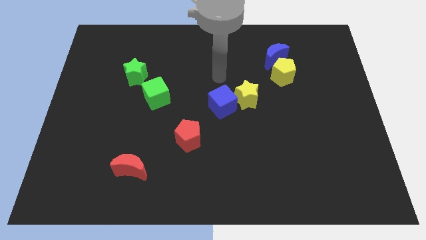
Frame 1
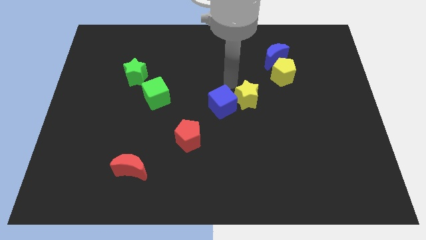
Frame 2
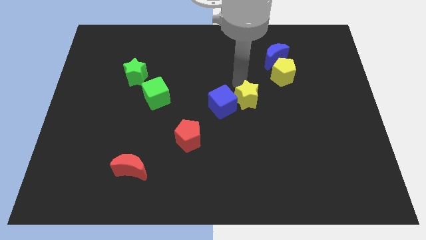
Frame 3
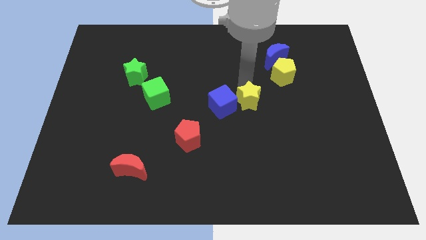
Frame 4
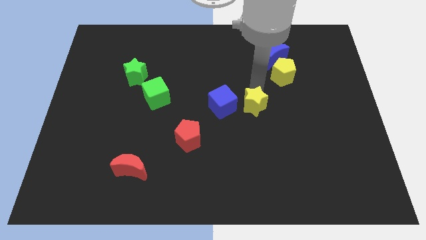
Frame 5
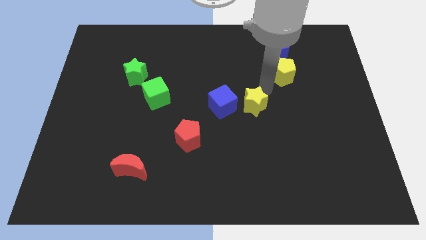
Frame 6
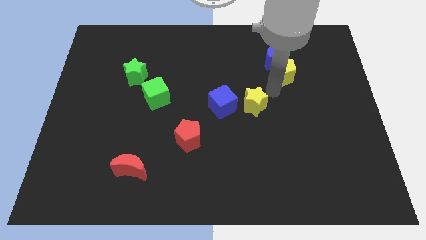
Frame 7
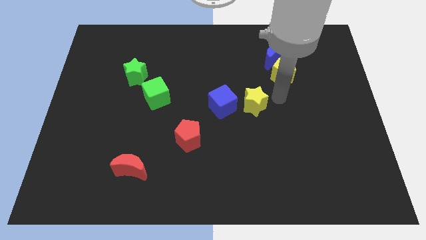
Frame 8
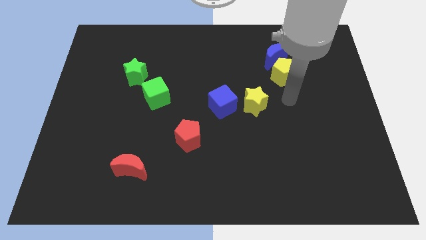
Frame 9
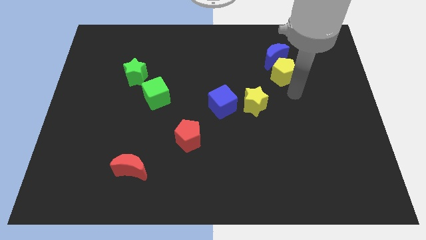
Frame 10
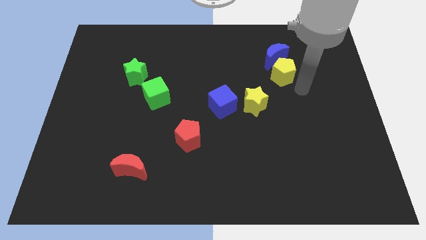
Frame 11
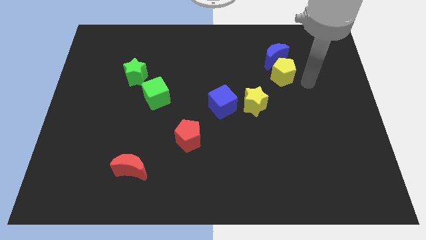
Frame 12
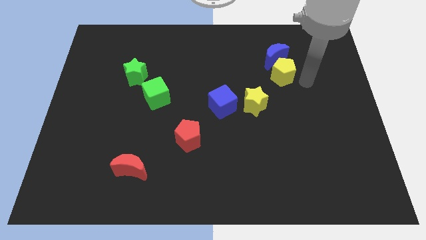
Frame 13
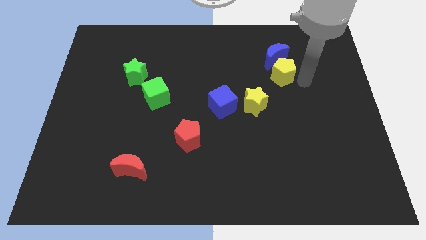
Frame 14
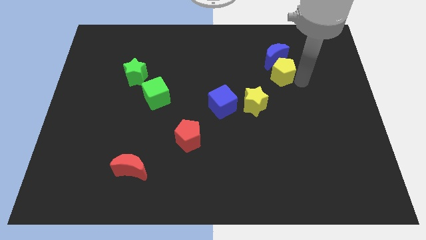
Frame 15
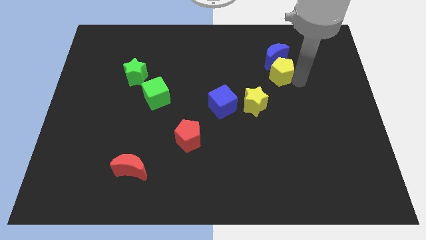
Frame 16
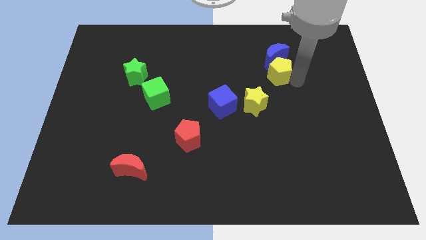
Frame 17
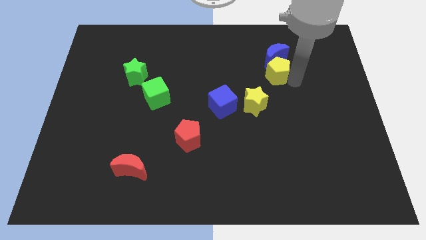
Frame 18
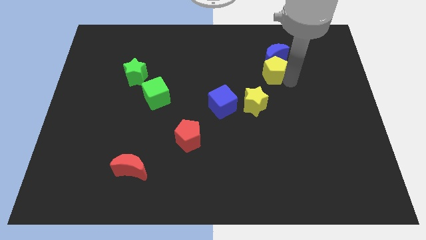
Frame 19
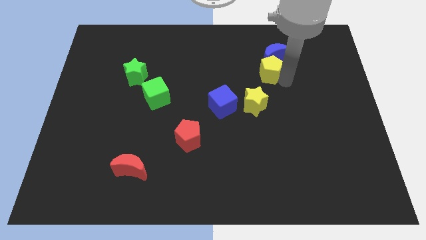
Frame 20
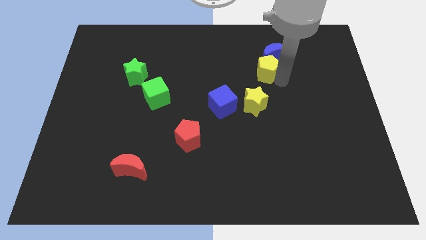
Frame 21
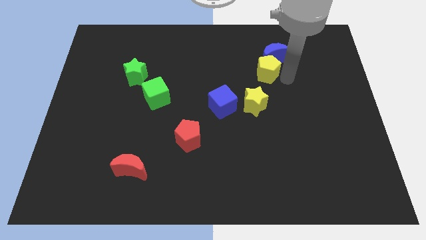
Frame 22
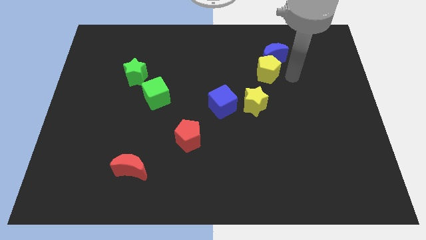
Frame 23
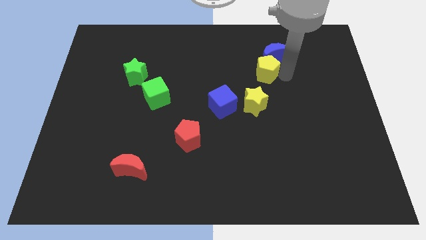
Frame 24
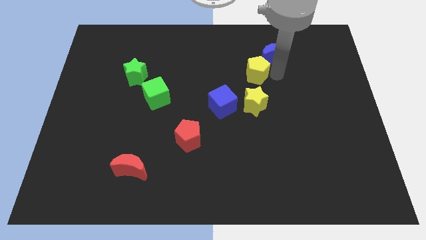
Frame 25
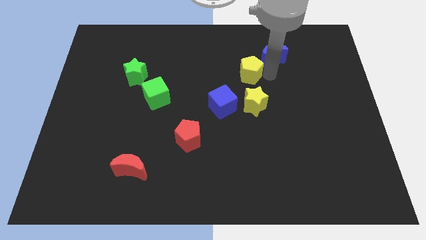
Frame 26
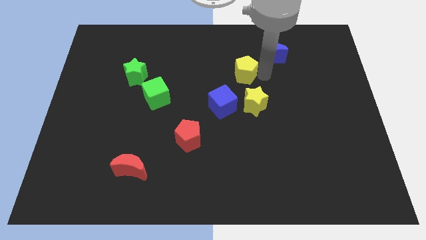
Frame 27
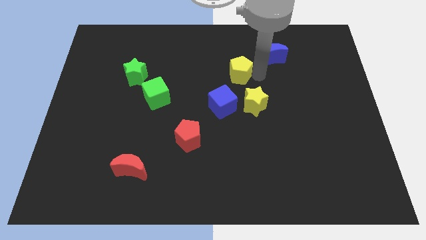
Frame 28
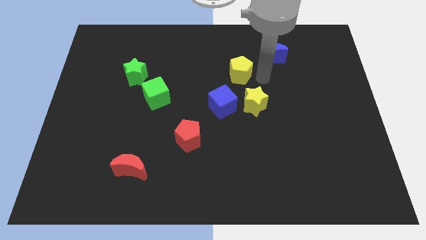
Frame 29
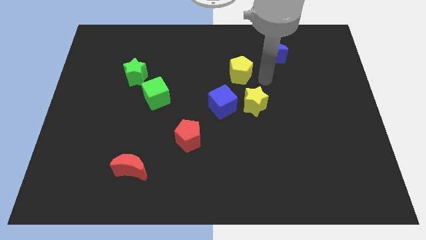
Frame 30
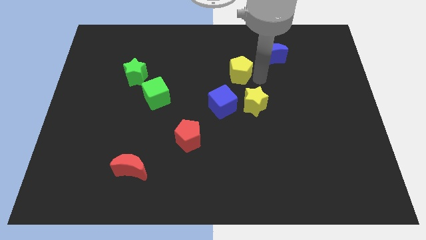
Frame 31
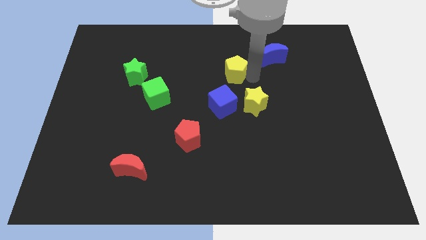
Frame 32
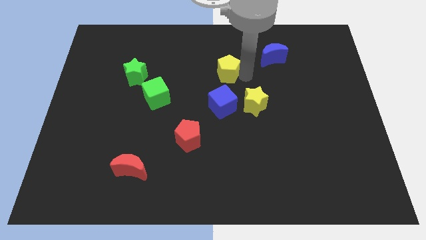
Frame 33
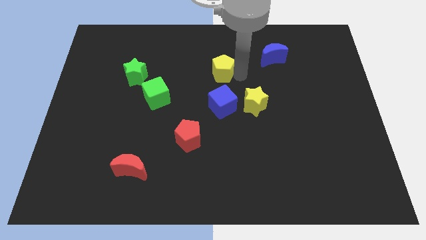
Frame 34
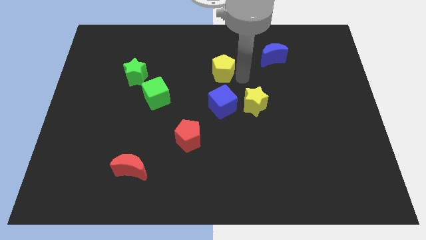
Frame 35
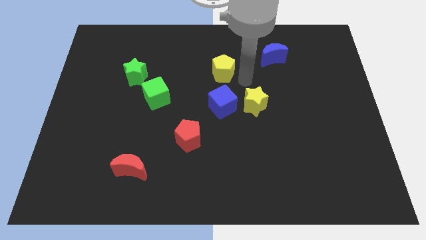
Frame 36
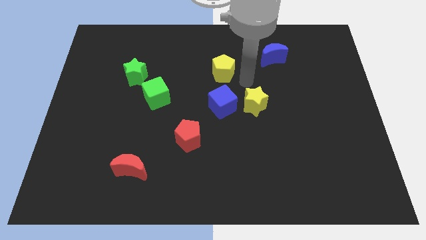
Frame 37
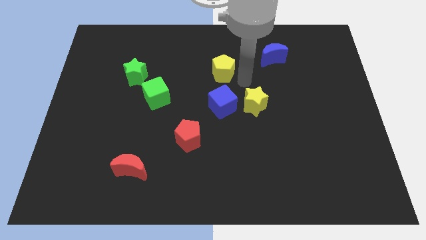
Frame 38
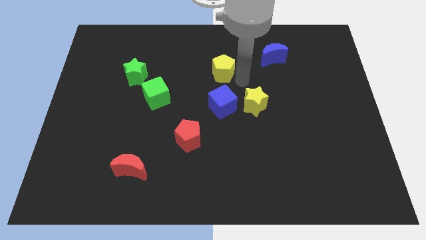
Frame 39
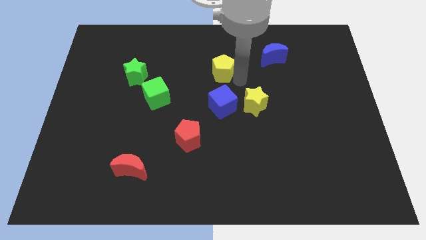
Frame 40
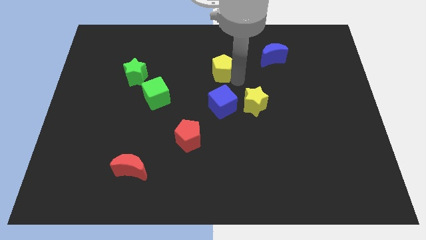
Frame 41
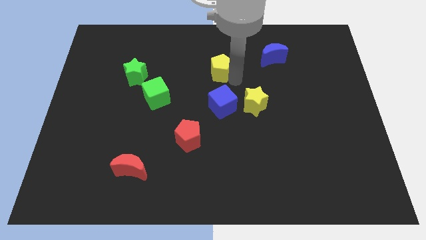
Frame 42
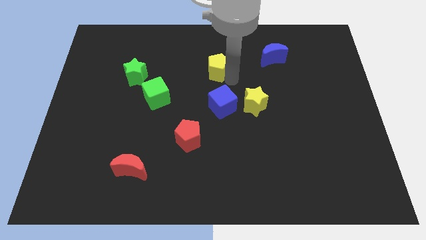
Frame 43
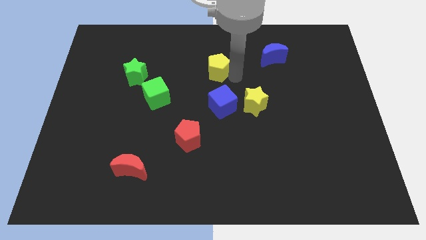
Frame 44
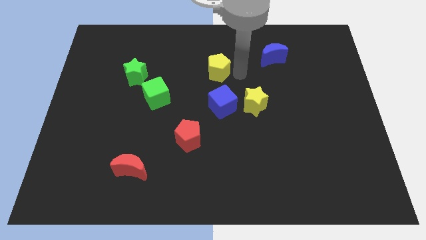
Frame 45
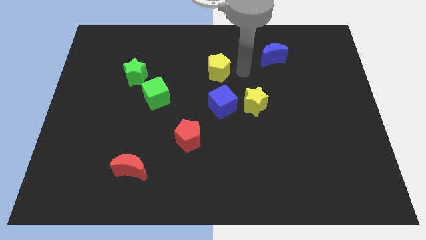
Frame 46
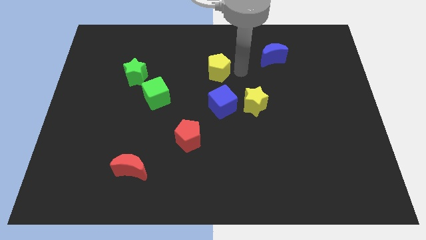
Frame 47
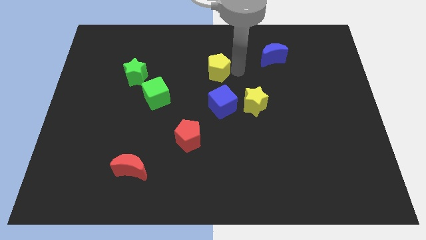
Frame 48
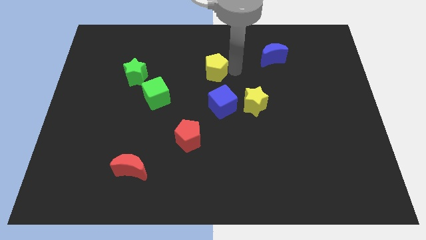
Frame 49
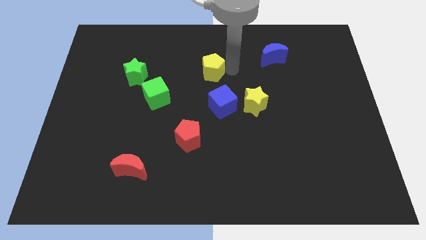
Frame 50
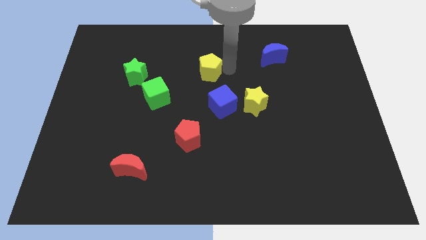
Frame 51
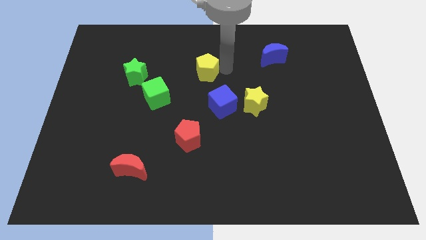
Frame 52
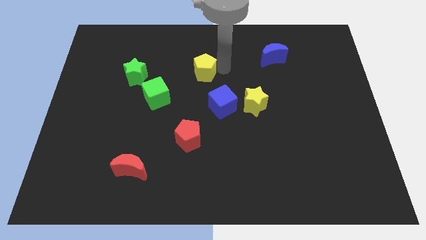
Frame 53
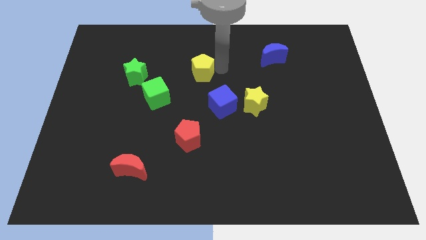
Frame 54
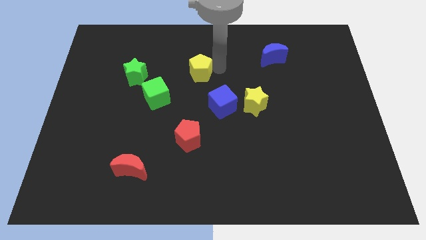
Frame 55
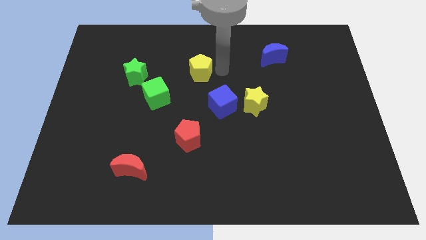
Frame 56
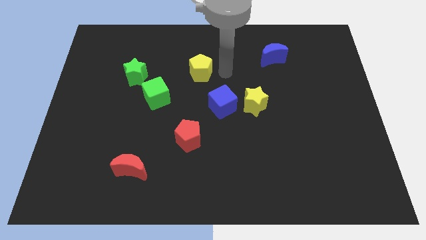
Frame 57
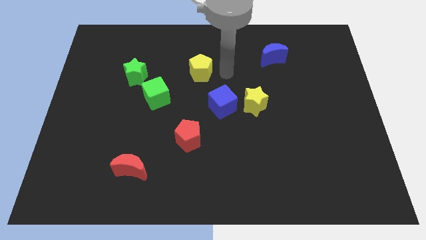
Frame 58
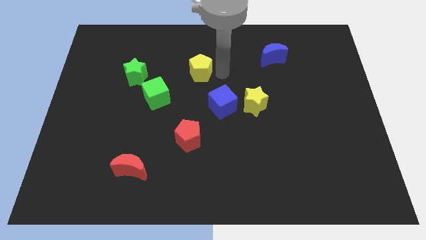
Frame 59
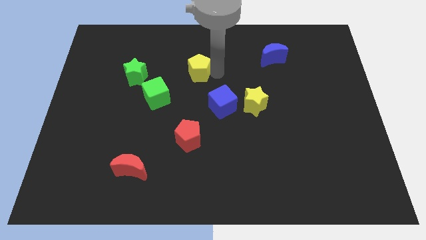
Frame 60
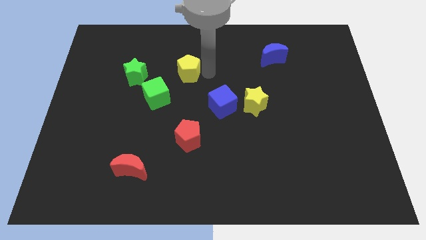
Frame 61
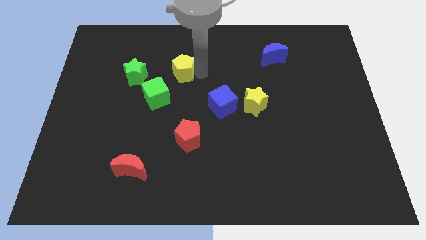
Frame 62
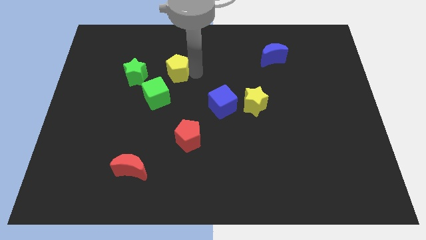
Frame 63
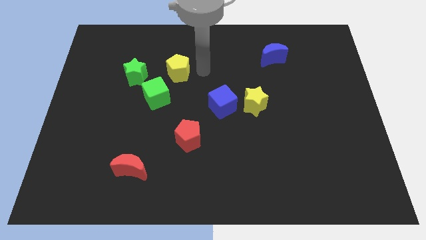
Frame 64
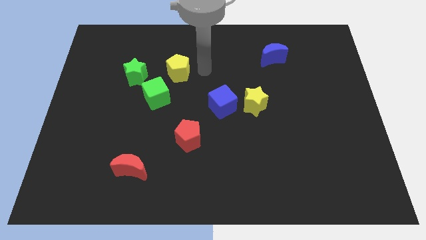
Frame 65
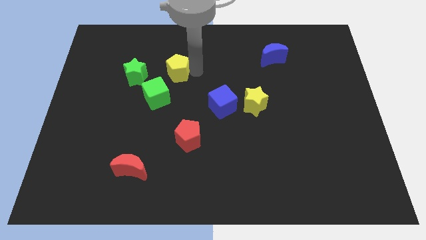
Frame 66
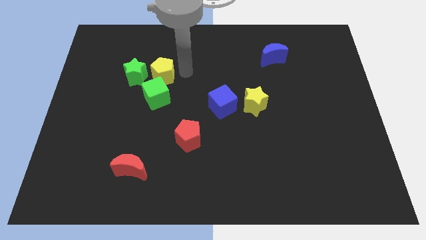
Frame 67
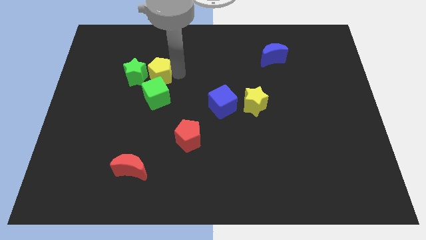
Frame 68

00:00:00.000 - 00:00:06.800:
slide the yellow pentagon towards the green star

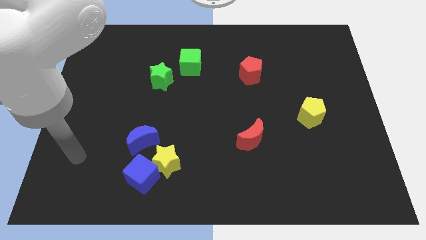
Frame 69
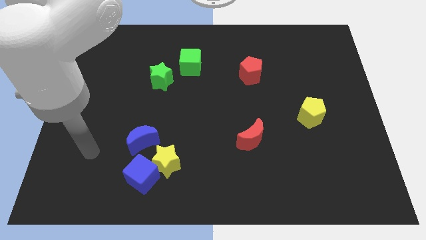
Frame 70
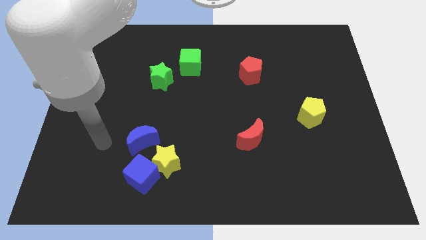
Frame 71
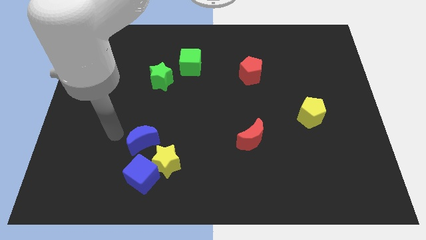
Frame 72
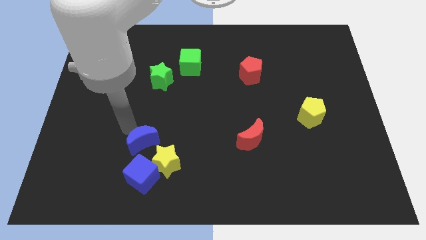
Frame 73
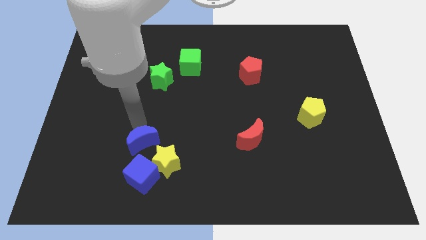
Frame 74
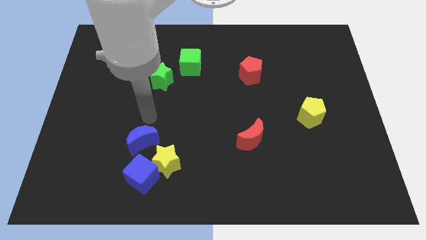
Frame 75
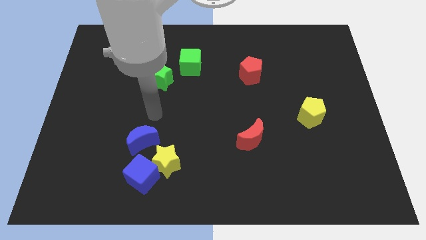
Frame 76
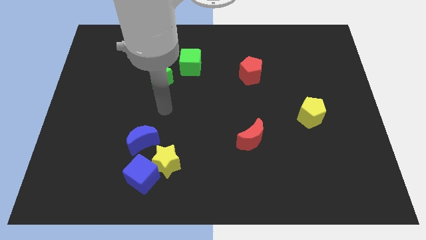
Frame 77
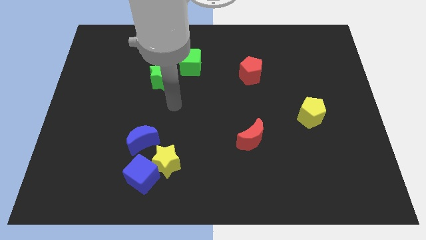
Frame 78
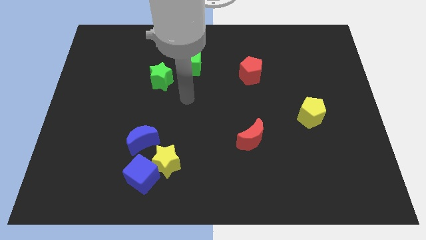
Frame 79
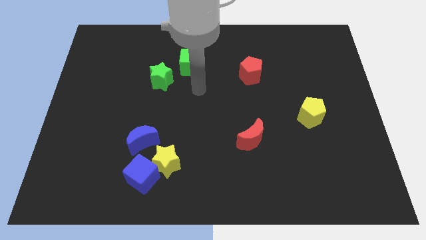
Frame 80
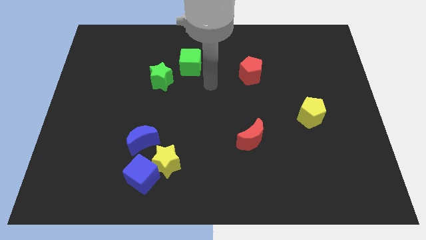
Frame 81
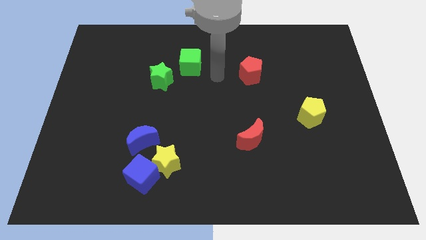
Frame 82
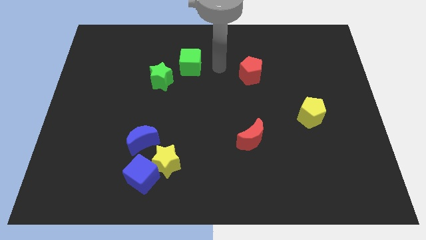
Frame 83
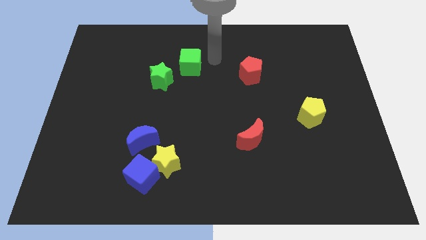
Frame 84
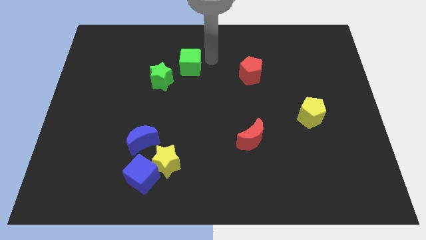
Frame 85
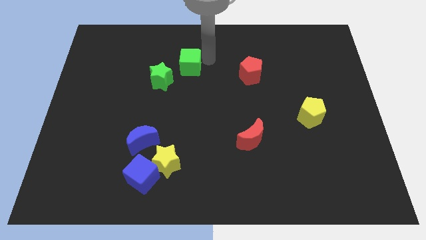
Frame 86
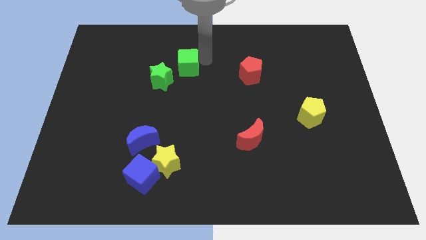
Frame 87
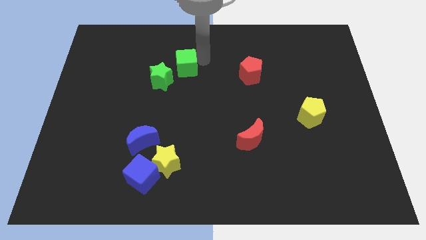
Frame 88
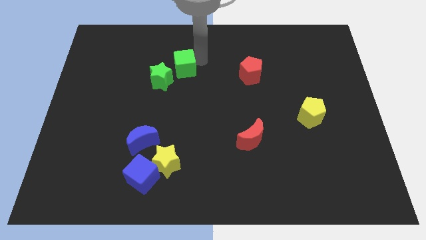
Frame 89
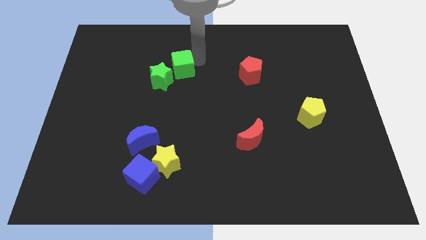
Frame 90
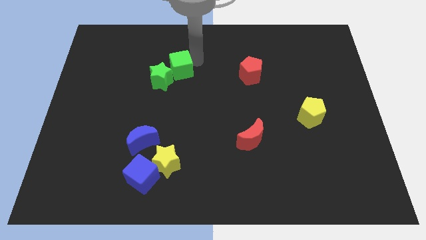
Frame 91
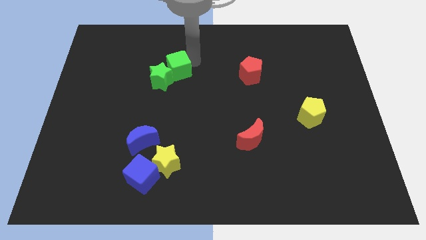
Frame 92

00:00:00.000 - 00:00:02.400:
put the green cube towards the green star
